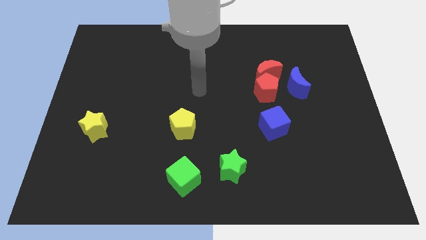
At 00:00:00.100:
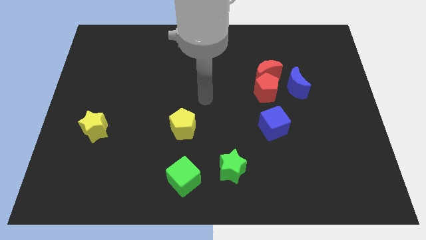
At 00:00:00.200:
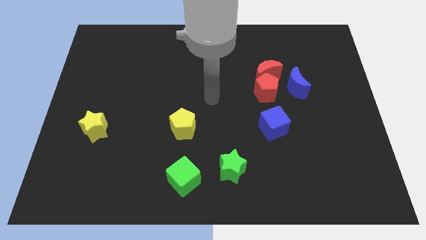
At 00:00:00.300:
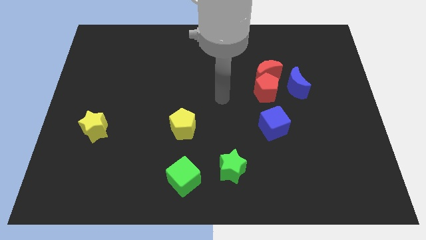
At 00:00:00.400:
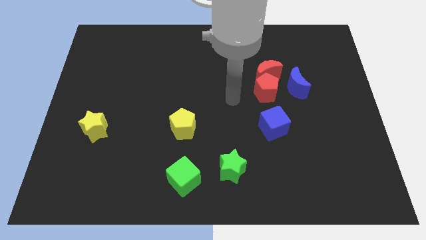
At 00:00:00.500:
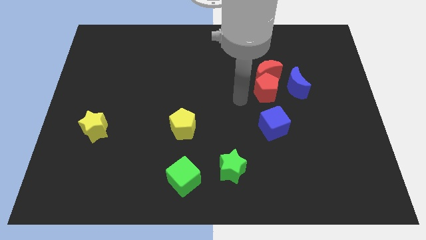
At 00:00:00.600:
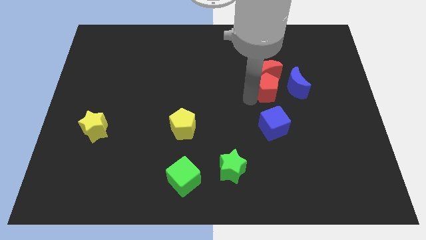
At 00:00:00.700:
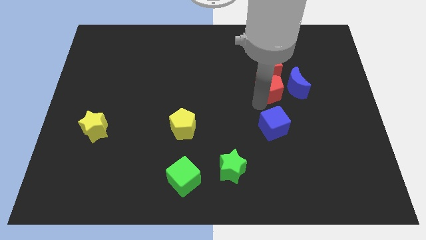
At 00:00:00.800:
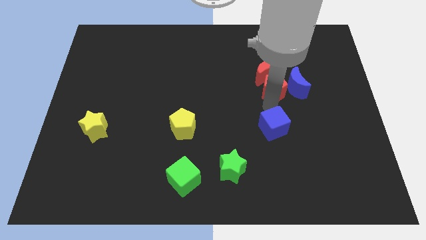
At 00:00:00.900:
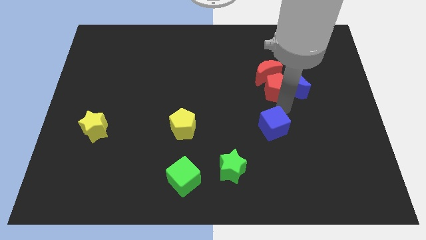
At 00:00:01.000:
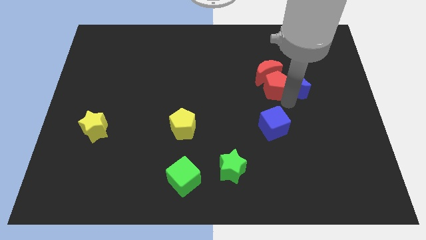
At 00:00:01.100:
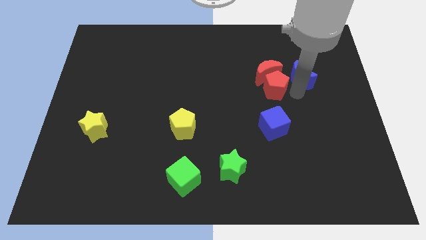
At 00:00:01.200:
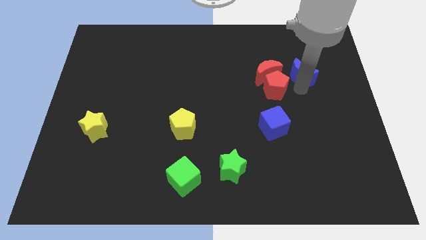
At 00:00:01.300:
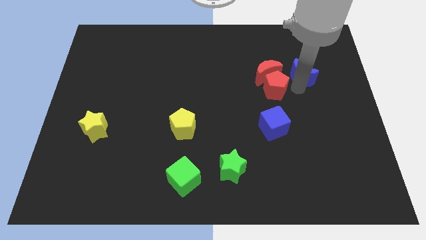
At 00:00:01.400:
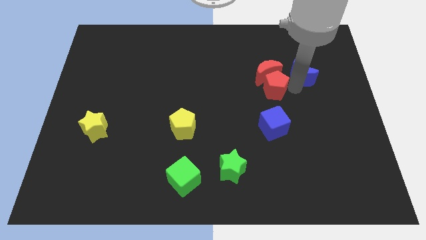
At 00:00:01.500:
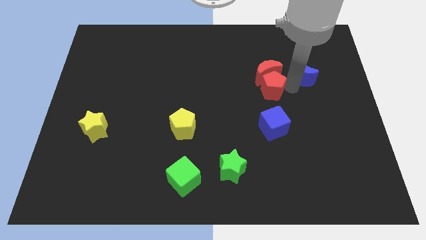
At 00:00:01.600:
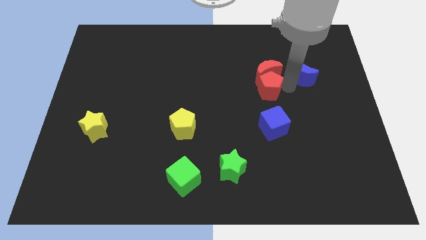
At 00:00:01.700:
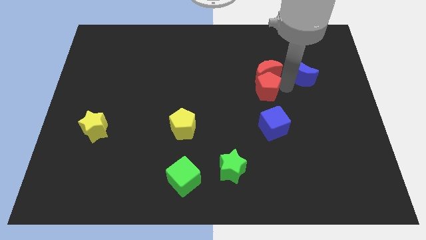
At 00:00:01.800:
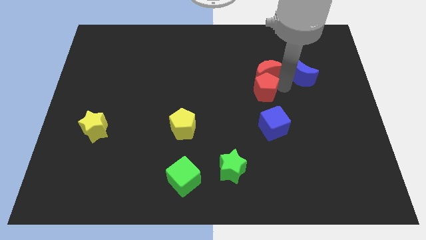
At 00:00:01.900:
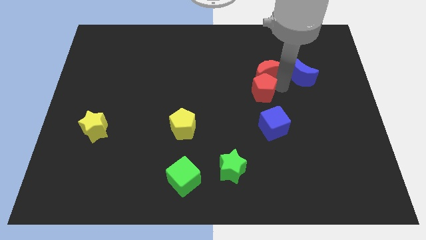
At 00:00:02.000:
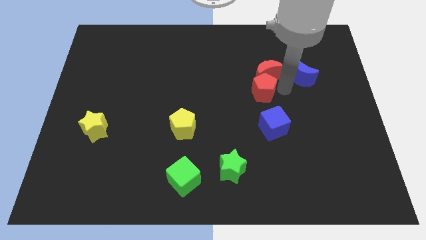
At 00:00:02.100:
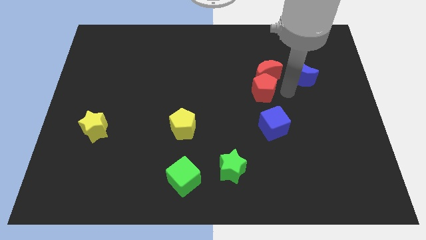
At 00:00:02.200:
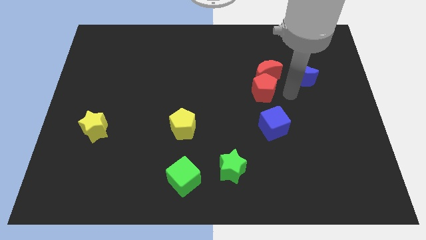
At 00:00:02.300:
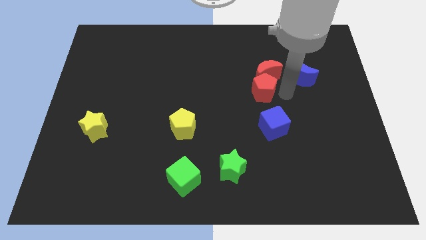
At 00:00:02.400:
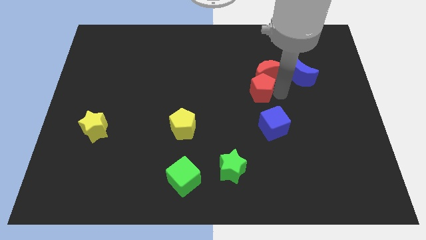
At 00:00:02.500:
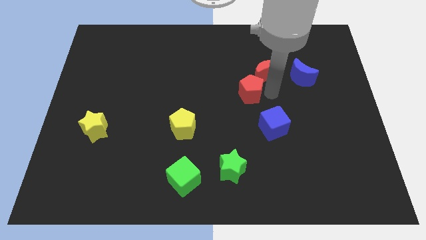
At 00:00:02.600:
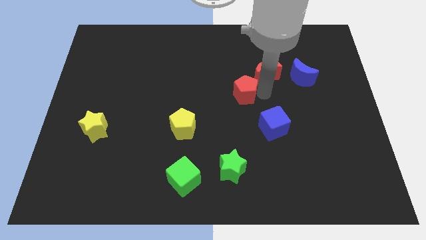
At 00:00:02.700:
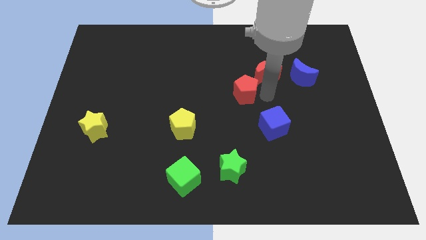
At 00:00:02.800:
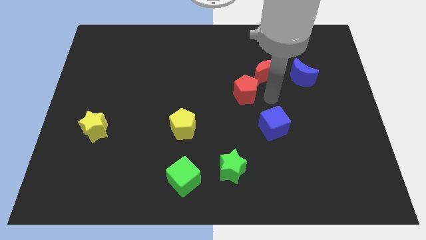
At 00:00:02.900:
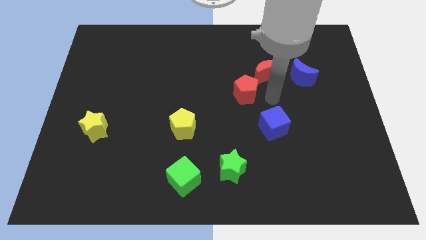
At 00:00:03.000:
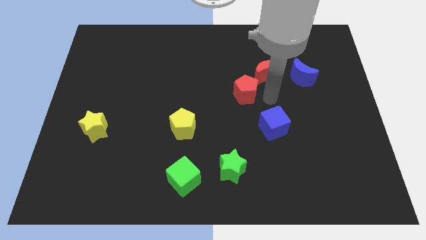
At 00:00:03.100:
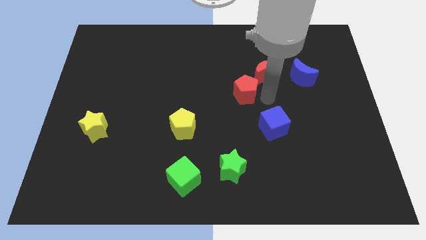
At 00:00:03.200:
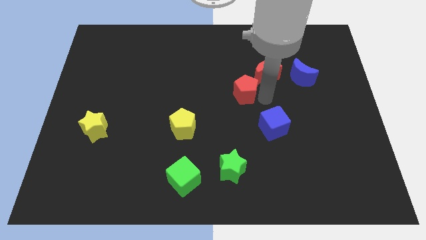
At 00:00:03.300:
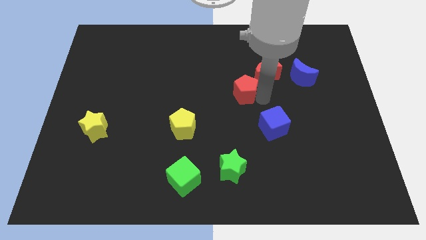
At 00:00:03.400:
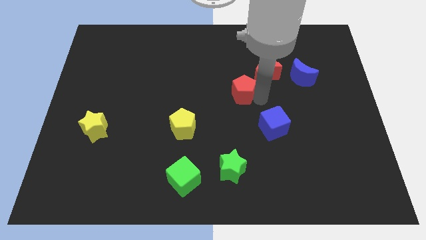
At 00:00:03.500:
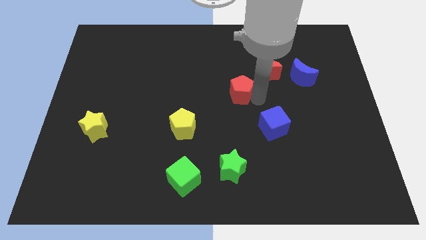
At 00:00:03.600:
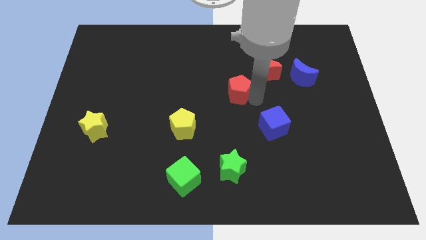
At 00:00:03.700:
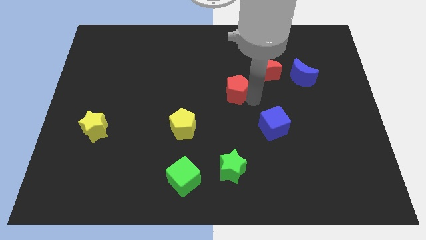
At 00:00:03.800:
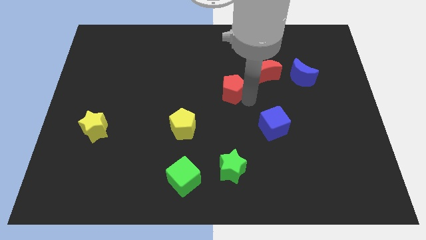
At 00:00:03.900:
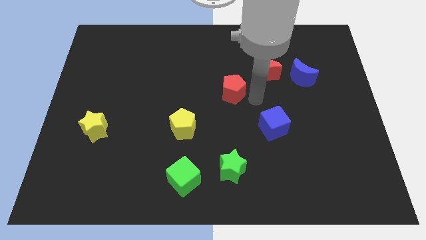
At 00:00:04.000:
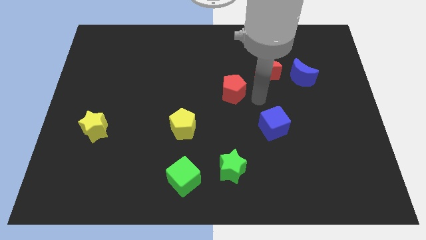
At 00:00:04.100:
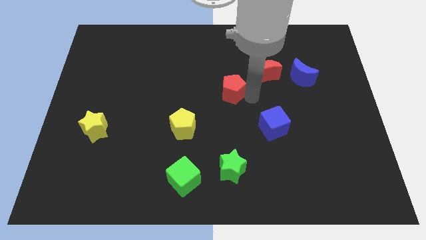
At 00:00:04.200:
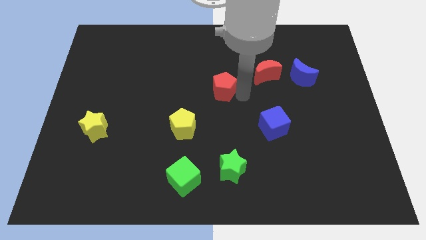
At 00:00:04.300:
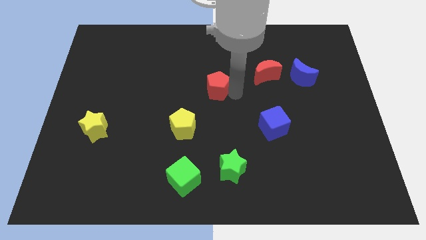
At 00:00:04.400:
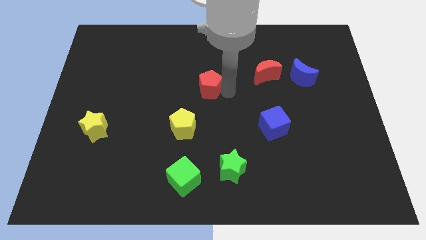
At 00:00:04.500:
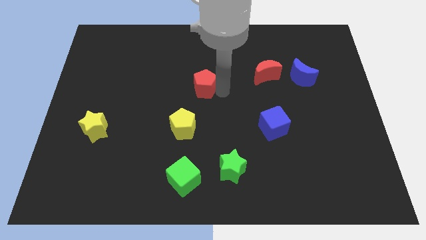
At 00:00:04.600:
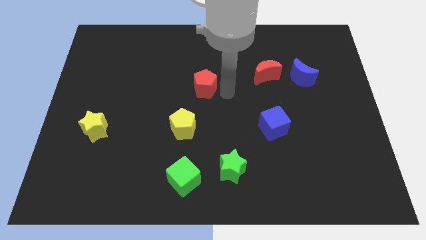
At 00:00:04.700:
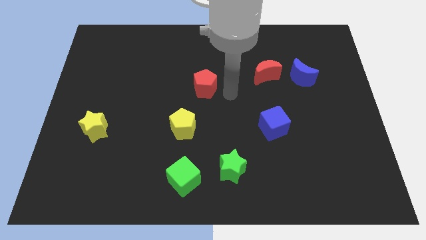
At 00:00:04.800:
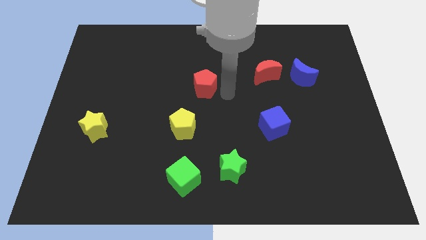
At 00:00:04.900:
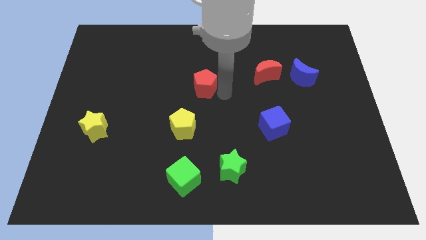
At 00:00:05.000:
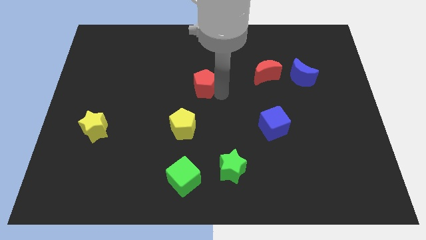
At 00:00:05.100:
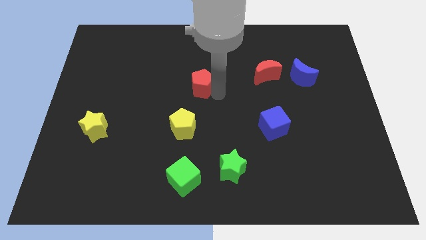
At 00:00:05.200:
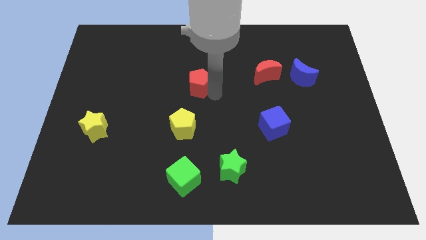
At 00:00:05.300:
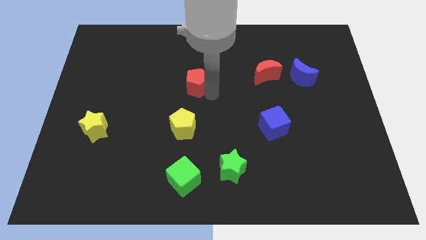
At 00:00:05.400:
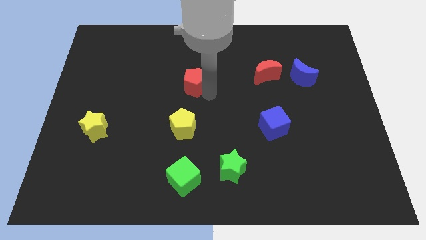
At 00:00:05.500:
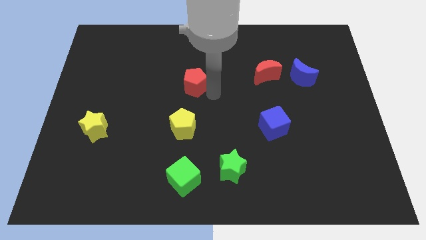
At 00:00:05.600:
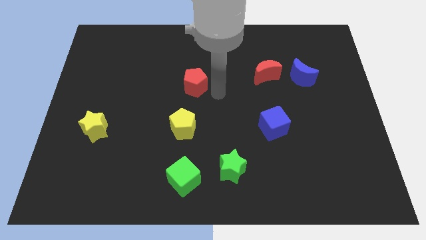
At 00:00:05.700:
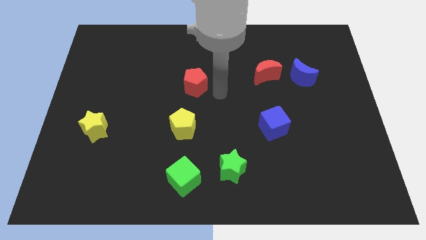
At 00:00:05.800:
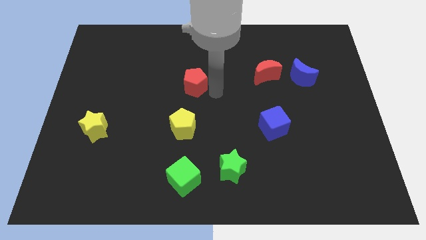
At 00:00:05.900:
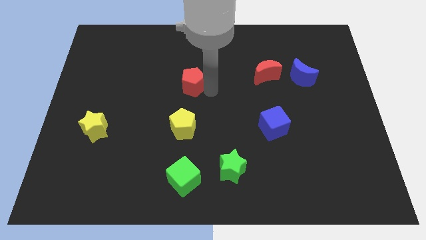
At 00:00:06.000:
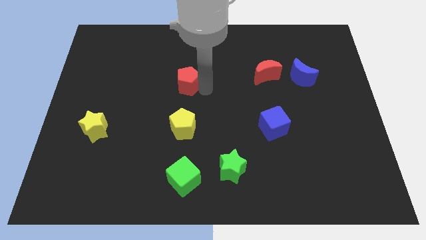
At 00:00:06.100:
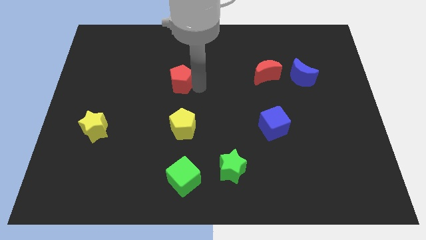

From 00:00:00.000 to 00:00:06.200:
slide the red pentagon to the left

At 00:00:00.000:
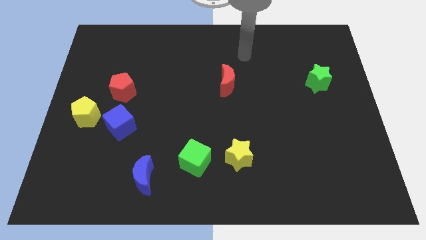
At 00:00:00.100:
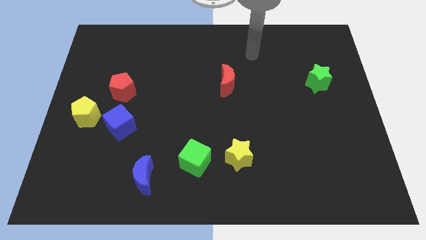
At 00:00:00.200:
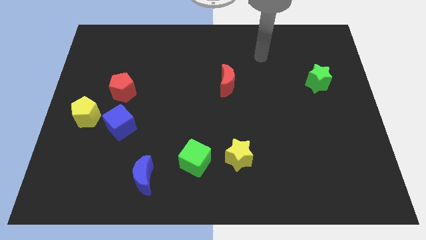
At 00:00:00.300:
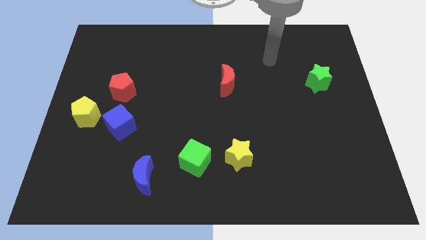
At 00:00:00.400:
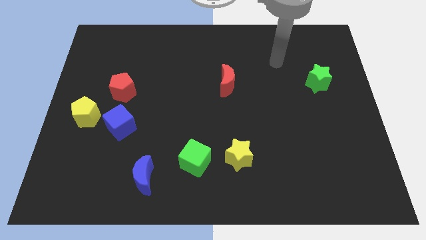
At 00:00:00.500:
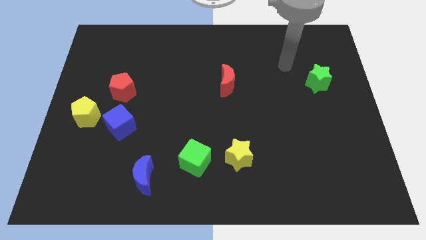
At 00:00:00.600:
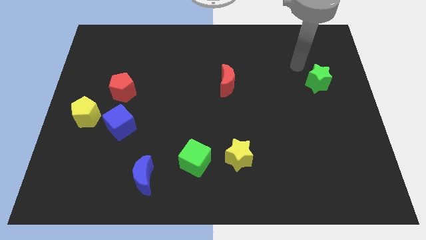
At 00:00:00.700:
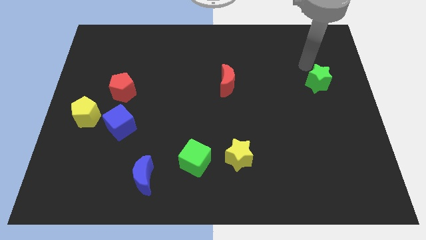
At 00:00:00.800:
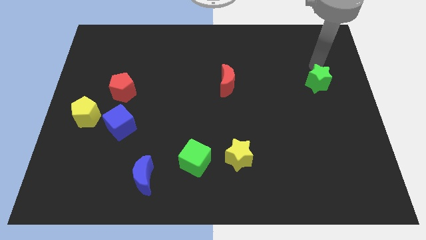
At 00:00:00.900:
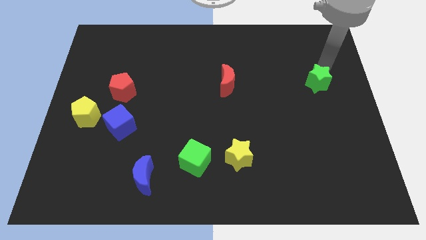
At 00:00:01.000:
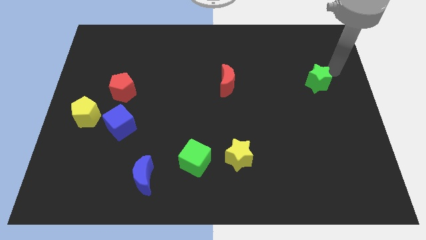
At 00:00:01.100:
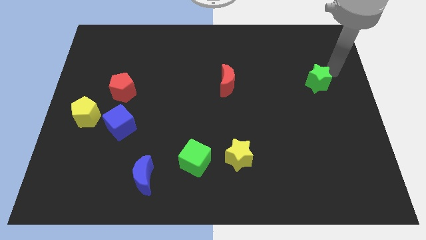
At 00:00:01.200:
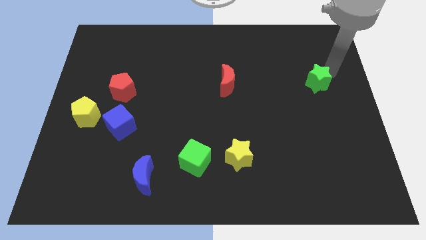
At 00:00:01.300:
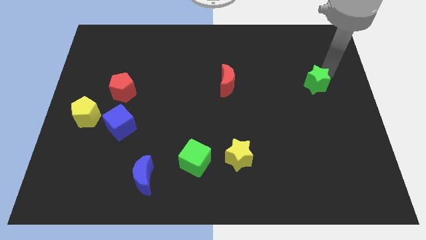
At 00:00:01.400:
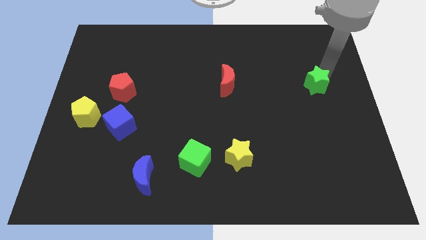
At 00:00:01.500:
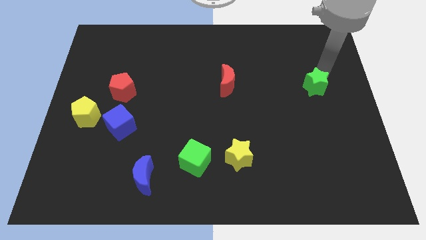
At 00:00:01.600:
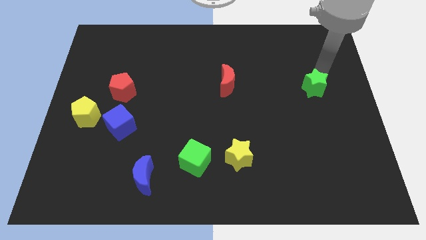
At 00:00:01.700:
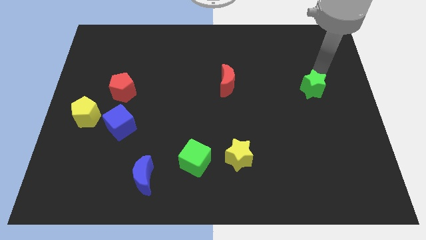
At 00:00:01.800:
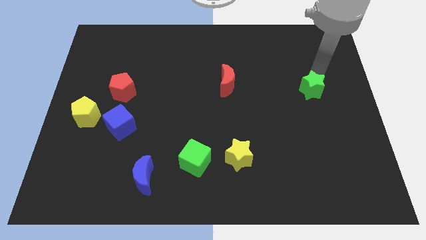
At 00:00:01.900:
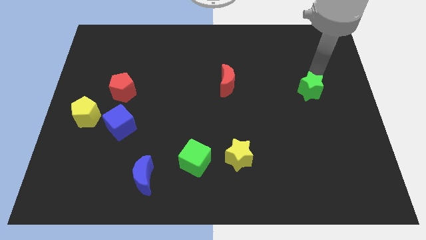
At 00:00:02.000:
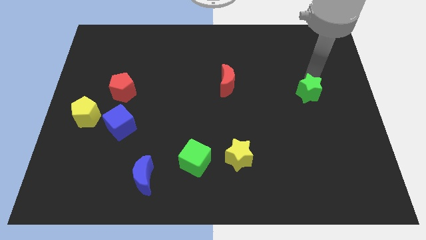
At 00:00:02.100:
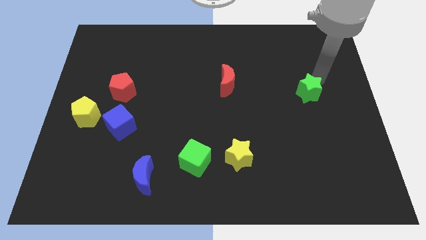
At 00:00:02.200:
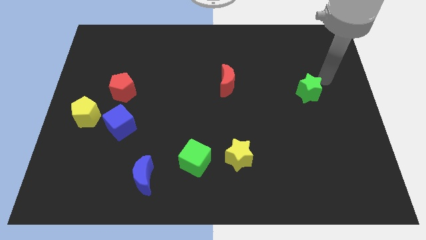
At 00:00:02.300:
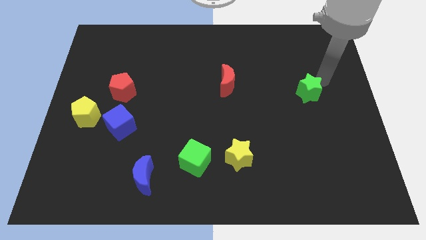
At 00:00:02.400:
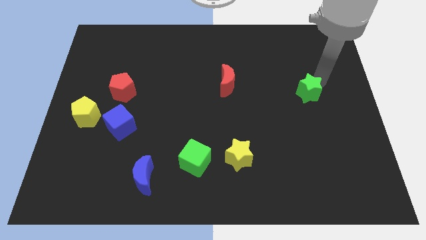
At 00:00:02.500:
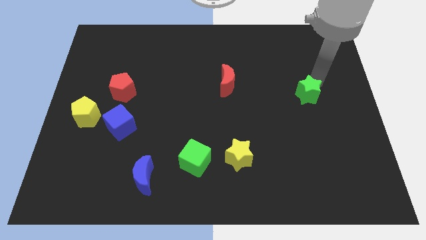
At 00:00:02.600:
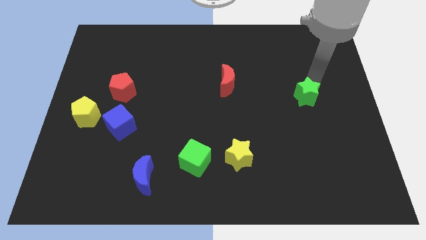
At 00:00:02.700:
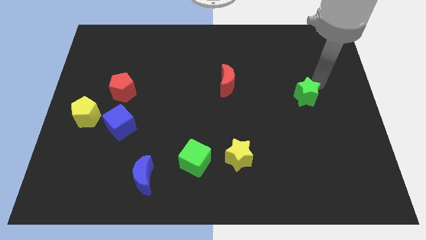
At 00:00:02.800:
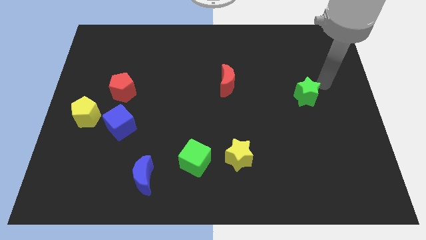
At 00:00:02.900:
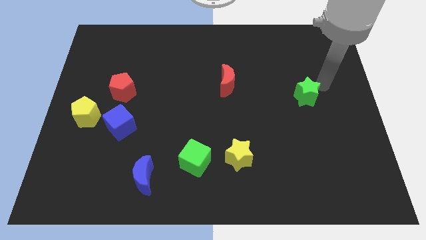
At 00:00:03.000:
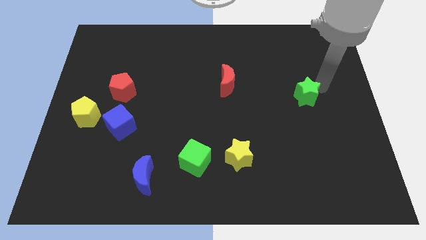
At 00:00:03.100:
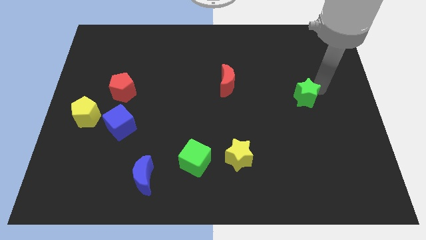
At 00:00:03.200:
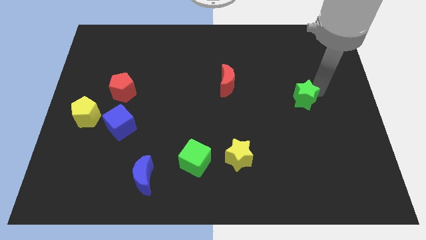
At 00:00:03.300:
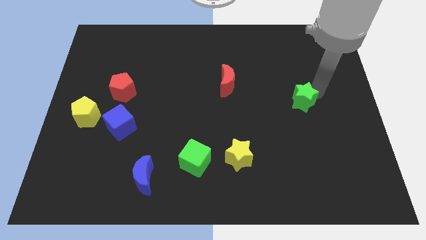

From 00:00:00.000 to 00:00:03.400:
slide the green star diagonally downwards and to the left a little
